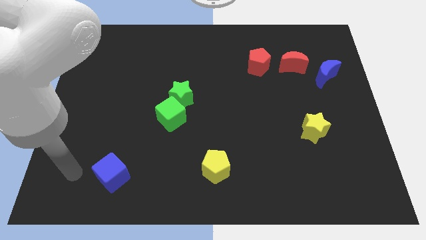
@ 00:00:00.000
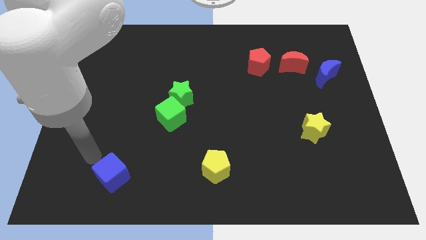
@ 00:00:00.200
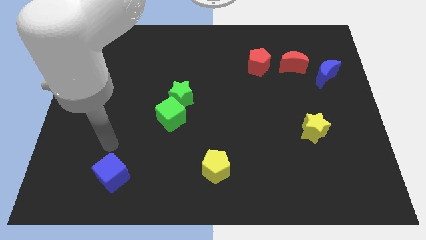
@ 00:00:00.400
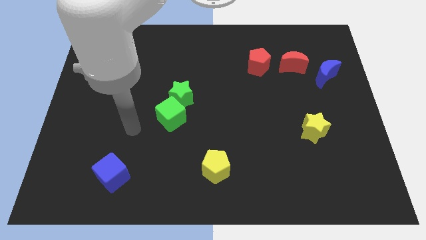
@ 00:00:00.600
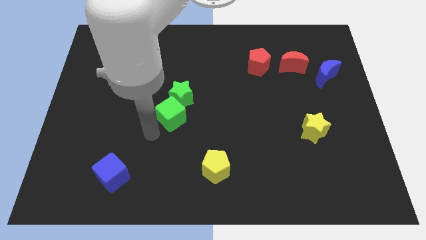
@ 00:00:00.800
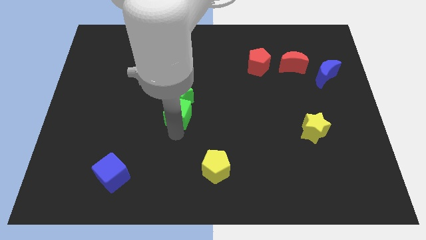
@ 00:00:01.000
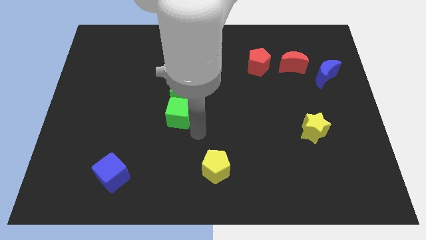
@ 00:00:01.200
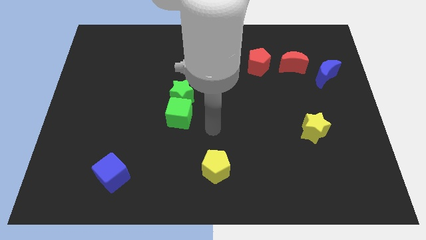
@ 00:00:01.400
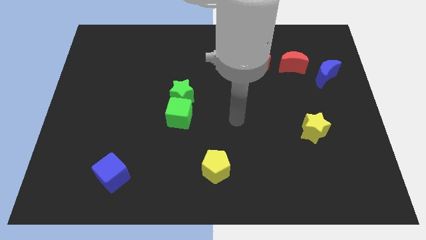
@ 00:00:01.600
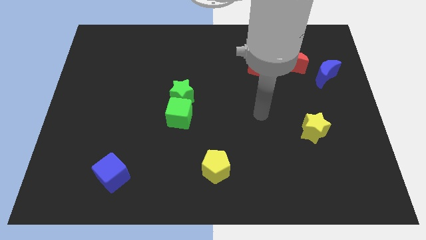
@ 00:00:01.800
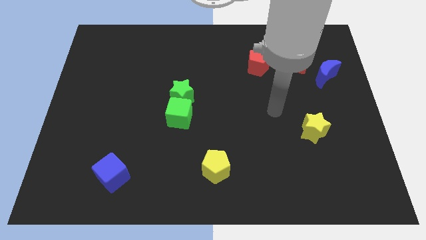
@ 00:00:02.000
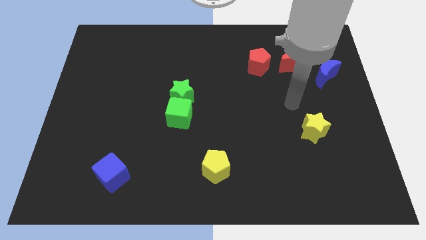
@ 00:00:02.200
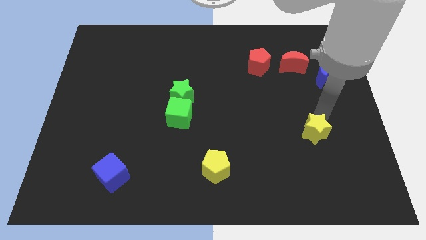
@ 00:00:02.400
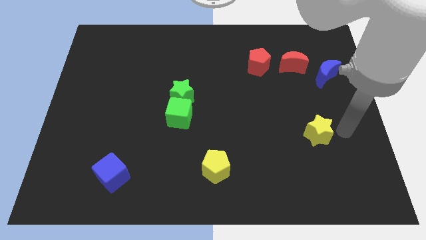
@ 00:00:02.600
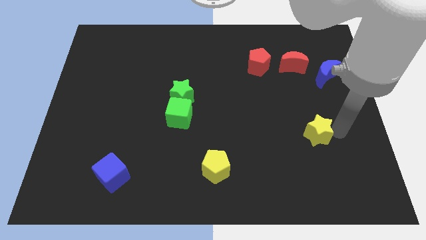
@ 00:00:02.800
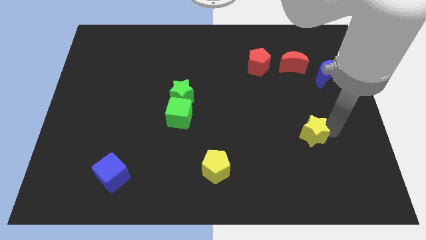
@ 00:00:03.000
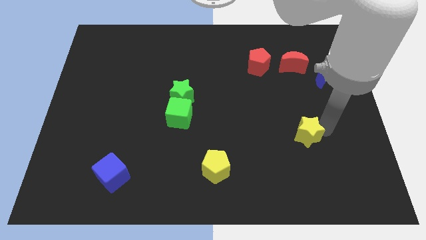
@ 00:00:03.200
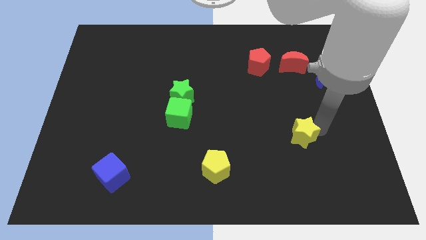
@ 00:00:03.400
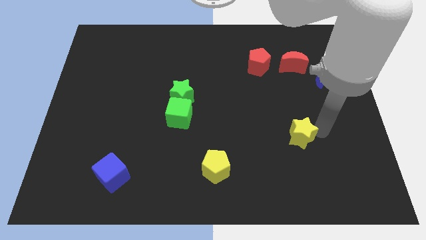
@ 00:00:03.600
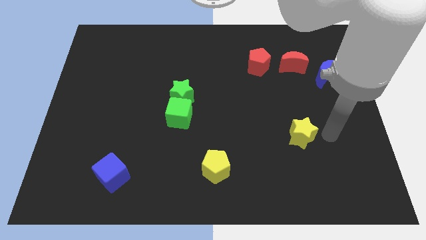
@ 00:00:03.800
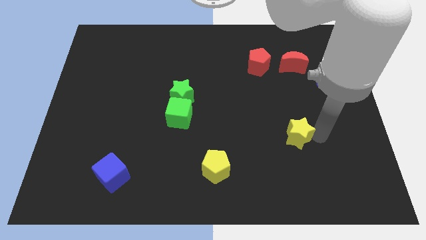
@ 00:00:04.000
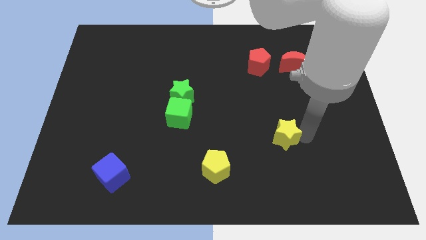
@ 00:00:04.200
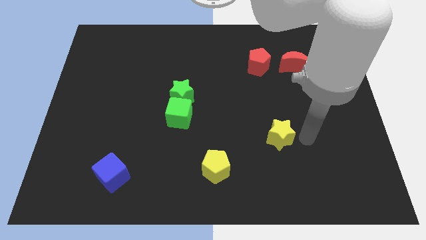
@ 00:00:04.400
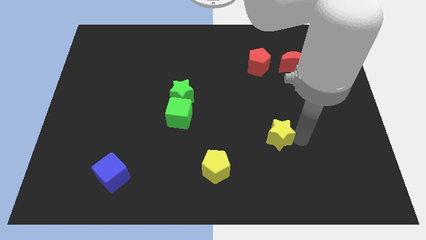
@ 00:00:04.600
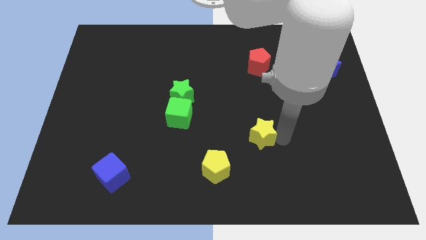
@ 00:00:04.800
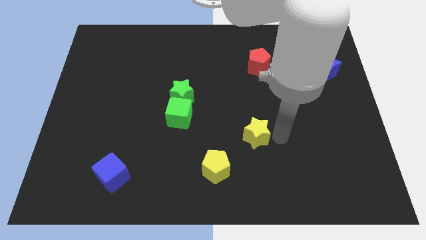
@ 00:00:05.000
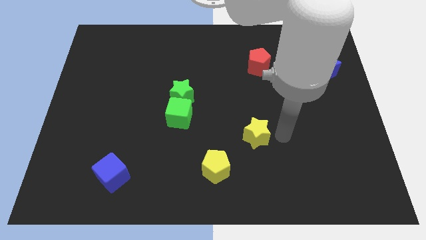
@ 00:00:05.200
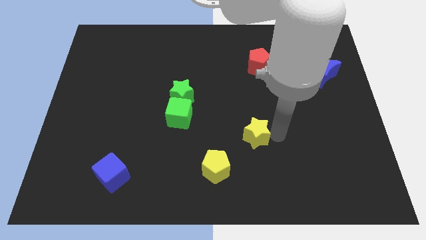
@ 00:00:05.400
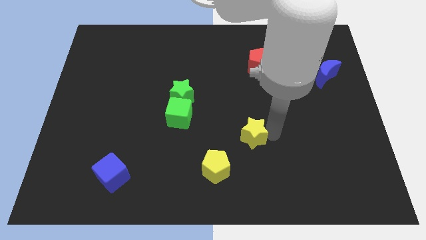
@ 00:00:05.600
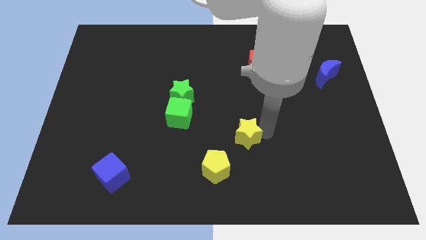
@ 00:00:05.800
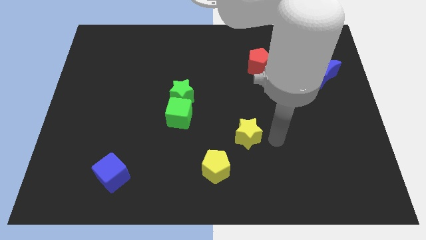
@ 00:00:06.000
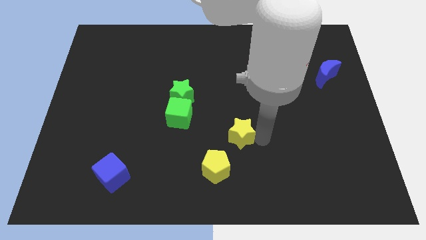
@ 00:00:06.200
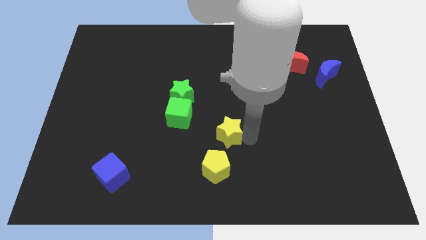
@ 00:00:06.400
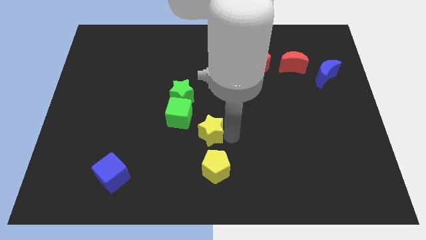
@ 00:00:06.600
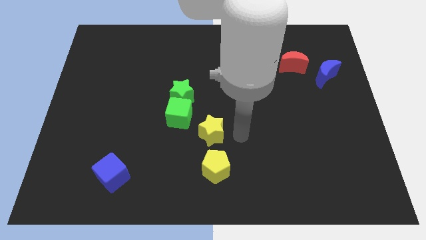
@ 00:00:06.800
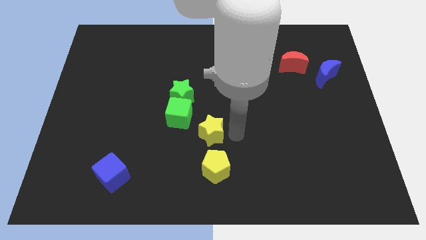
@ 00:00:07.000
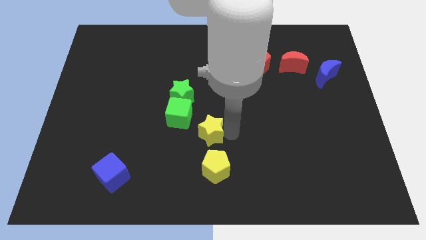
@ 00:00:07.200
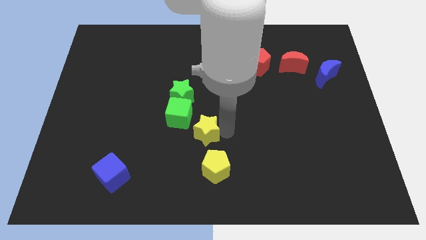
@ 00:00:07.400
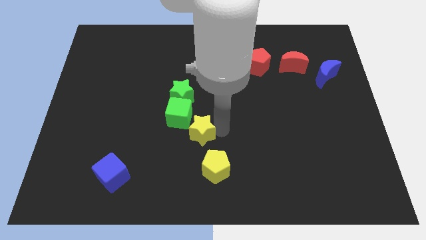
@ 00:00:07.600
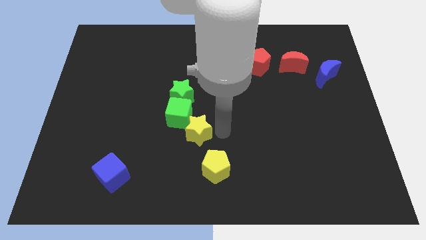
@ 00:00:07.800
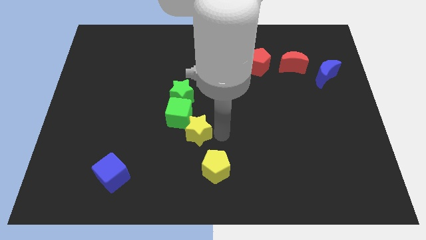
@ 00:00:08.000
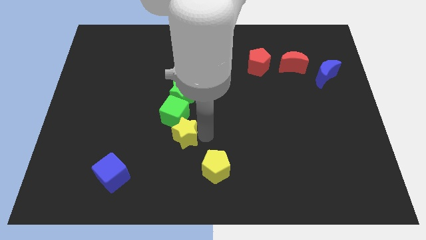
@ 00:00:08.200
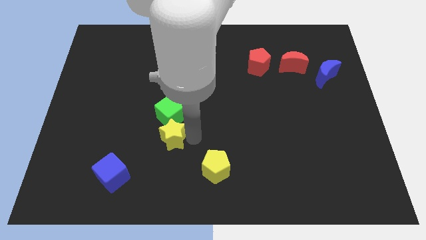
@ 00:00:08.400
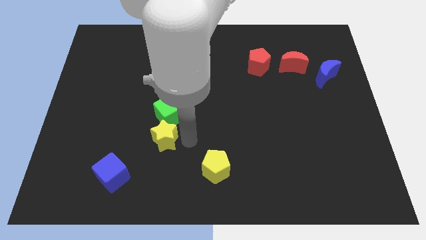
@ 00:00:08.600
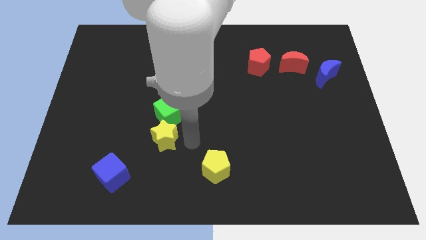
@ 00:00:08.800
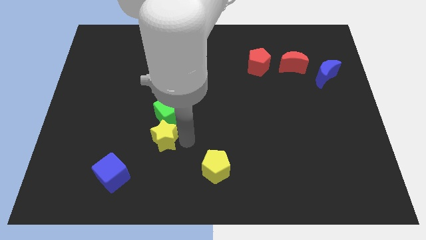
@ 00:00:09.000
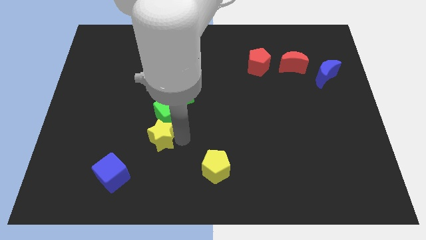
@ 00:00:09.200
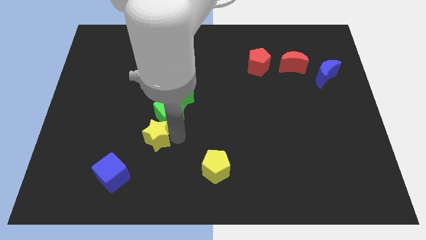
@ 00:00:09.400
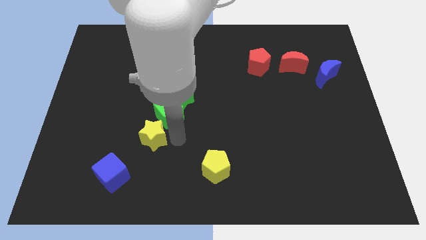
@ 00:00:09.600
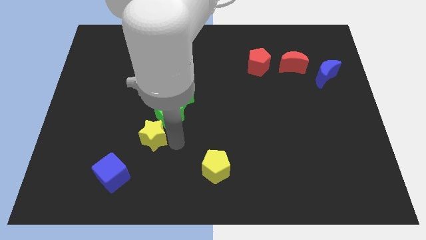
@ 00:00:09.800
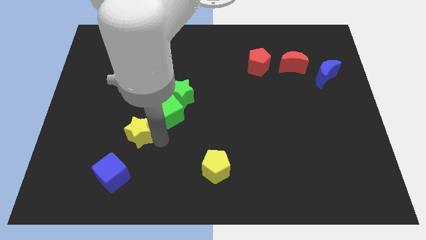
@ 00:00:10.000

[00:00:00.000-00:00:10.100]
slide the yellow star to the top of the blue cube

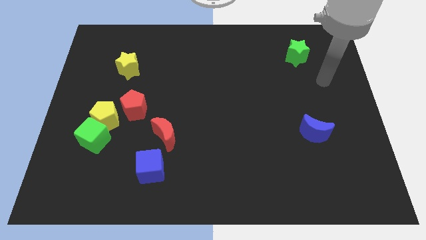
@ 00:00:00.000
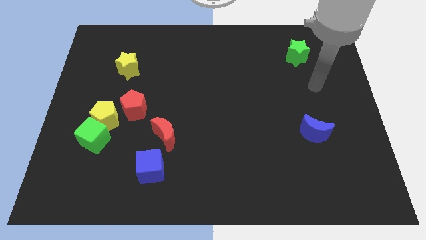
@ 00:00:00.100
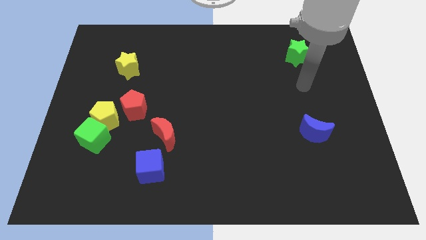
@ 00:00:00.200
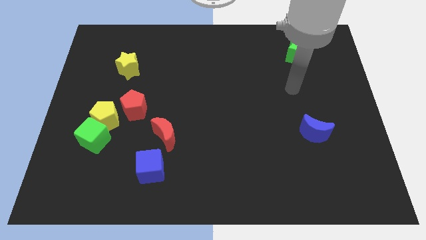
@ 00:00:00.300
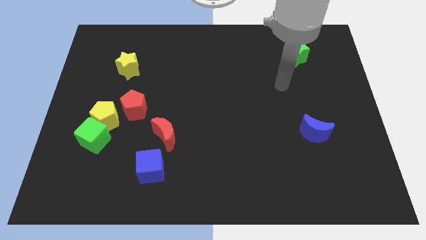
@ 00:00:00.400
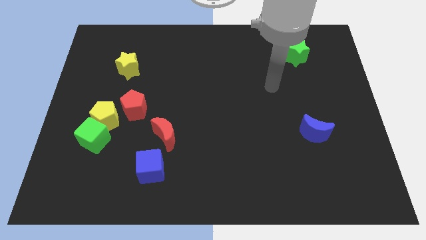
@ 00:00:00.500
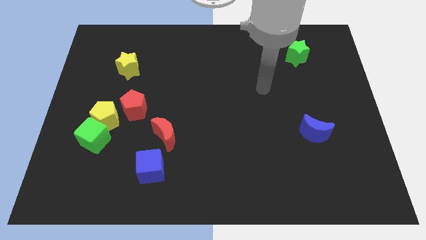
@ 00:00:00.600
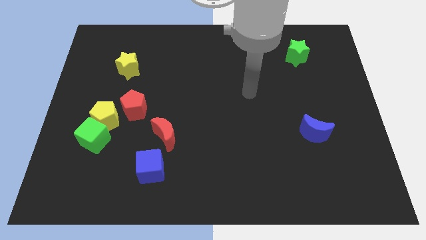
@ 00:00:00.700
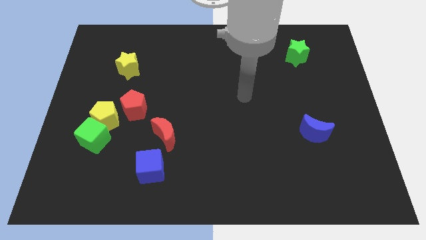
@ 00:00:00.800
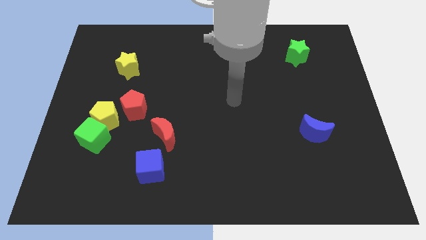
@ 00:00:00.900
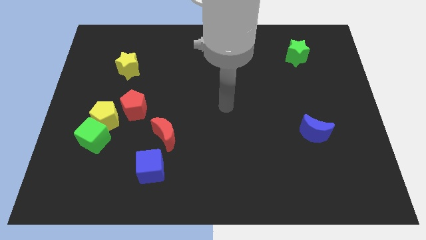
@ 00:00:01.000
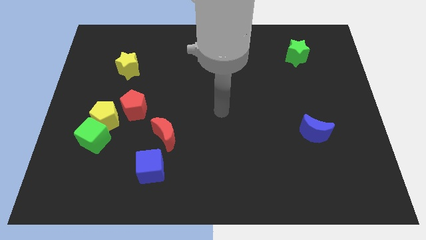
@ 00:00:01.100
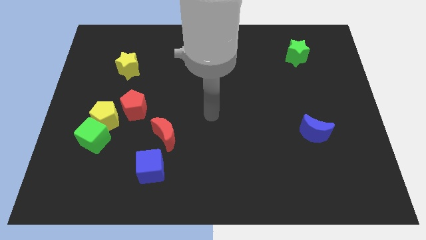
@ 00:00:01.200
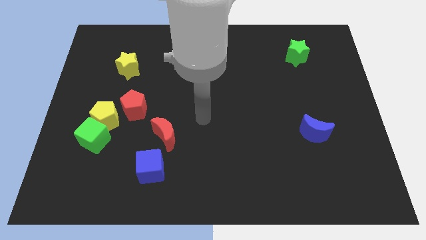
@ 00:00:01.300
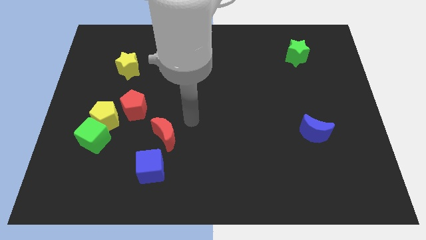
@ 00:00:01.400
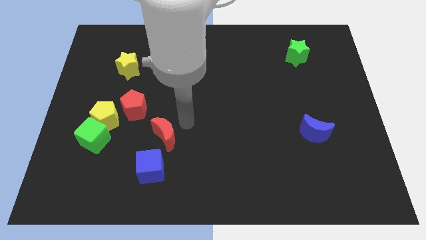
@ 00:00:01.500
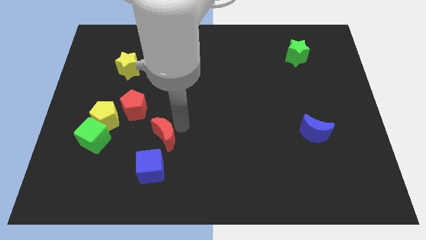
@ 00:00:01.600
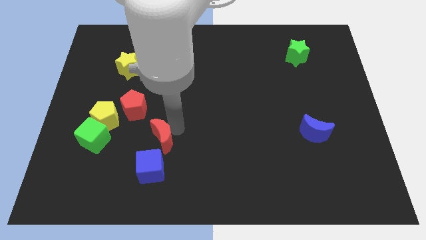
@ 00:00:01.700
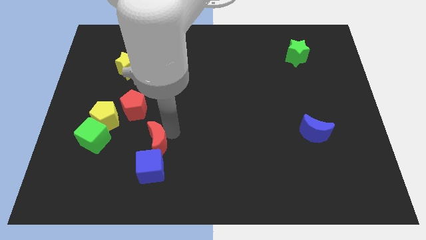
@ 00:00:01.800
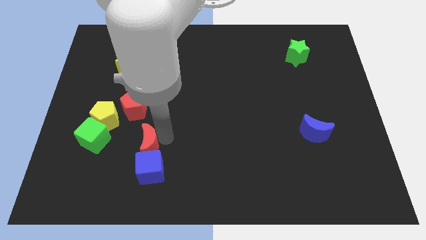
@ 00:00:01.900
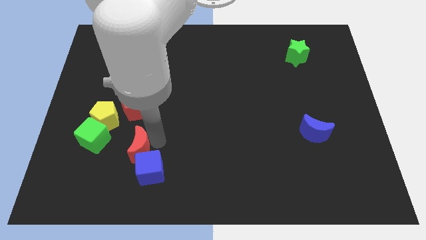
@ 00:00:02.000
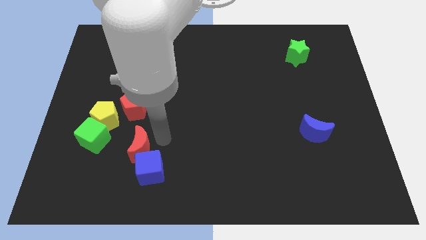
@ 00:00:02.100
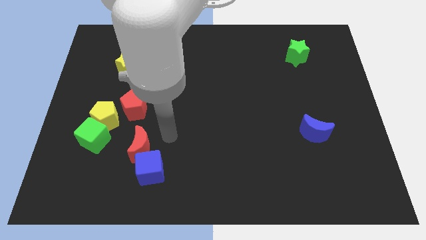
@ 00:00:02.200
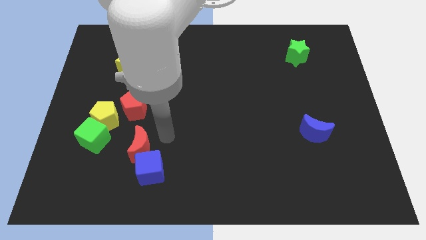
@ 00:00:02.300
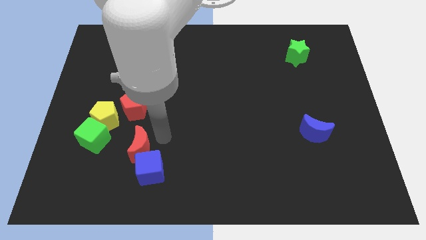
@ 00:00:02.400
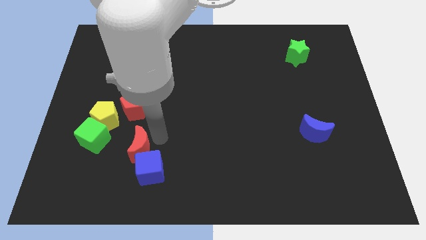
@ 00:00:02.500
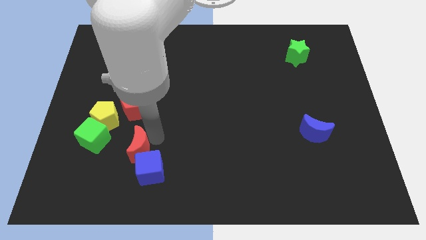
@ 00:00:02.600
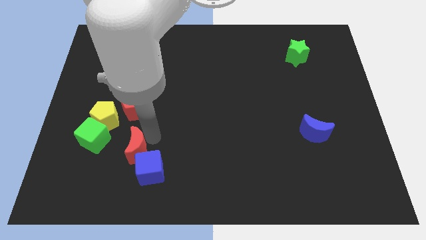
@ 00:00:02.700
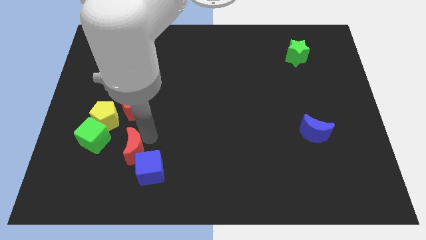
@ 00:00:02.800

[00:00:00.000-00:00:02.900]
move the red moon to the bottom right side of the green cube
